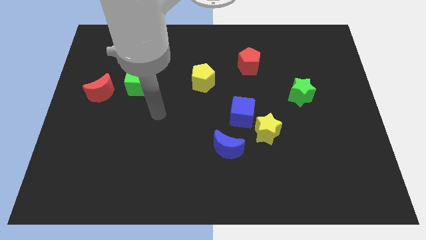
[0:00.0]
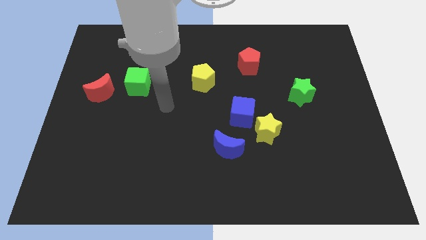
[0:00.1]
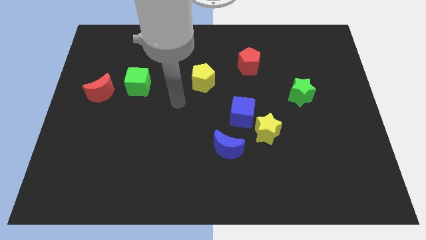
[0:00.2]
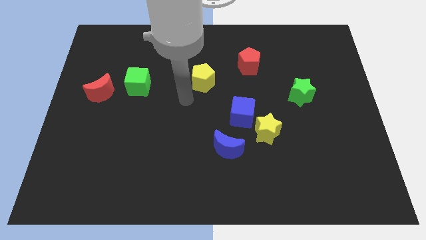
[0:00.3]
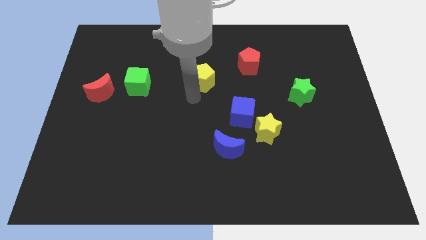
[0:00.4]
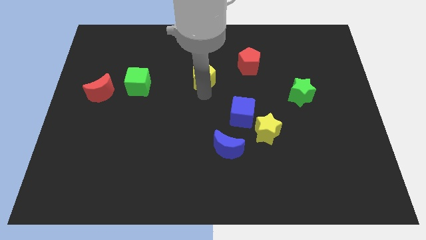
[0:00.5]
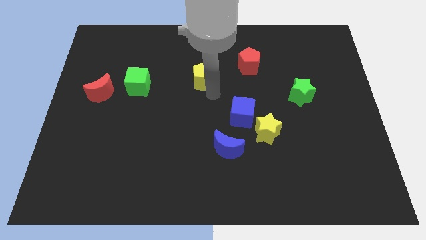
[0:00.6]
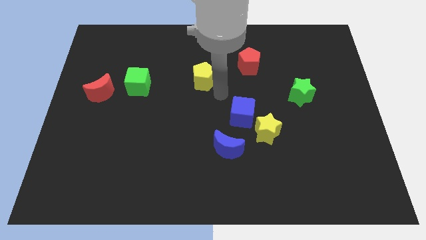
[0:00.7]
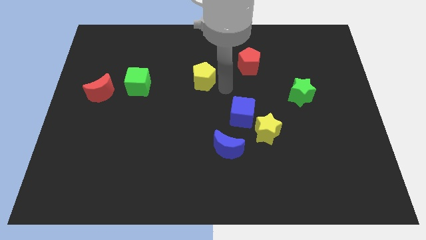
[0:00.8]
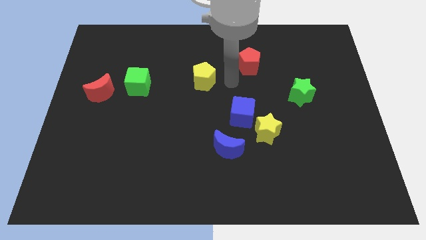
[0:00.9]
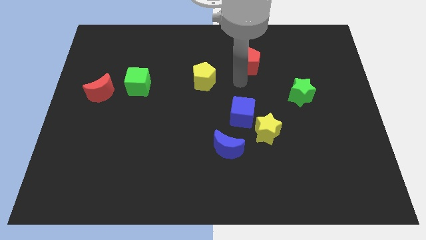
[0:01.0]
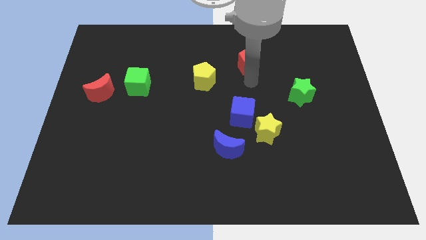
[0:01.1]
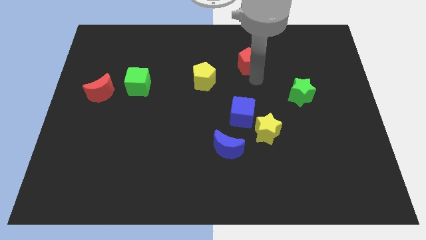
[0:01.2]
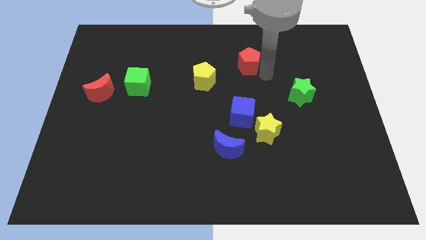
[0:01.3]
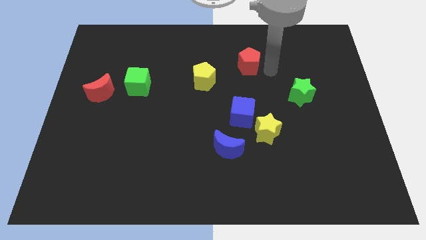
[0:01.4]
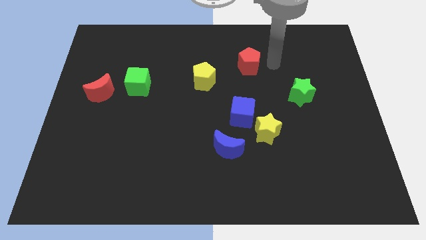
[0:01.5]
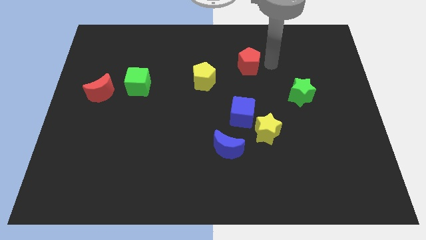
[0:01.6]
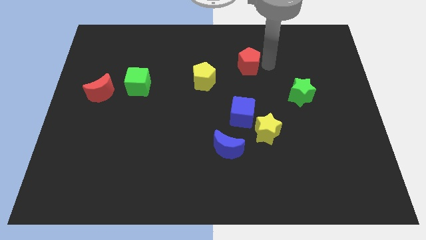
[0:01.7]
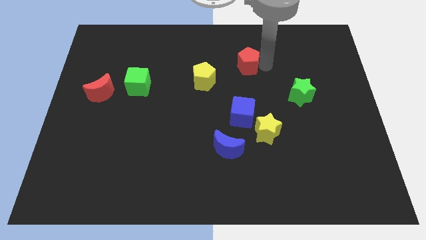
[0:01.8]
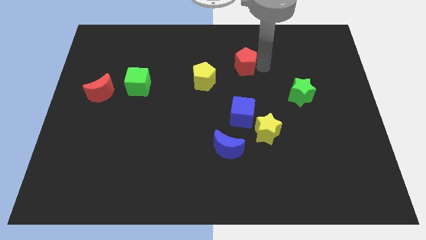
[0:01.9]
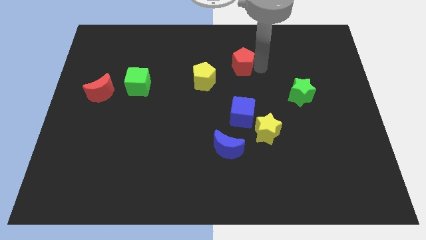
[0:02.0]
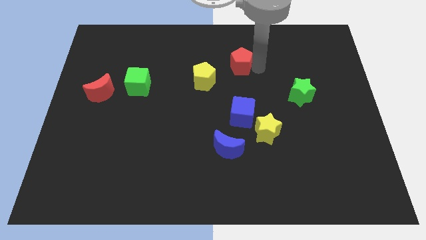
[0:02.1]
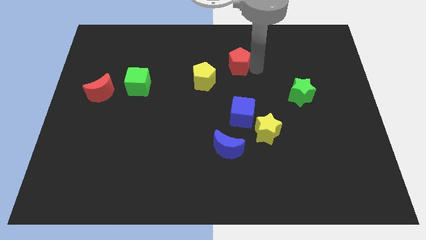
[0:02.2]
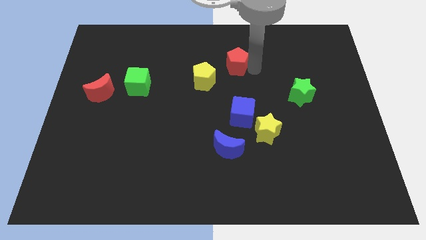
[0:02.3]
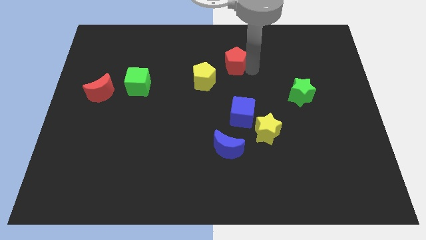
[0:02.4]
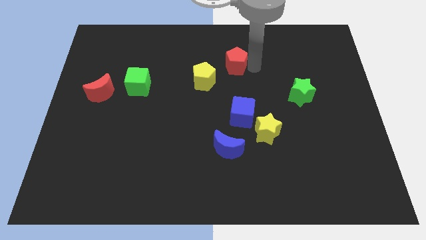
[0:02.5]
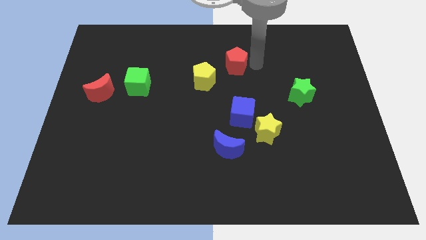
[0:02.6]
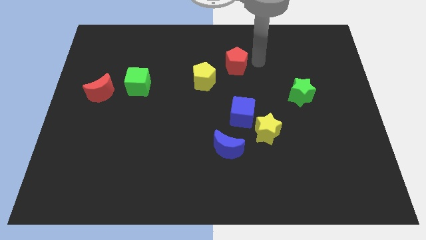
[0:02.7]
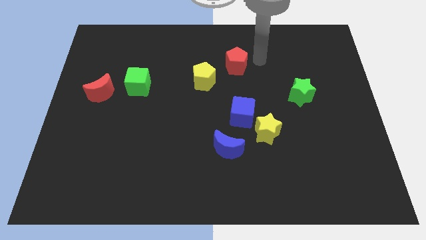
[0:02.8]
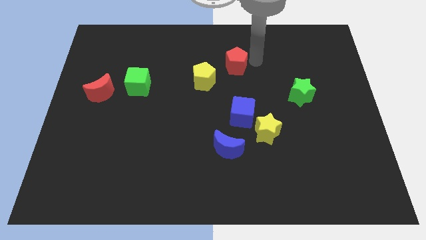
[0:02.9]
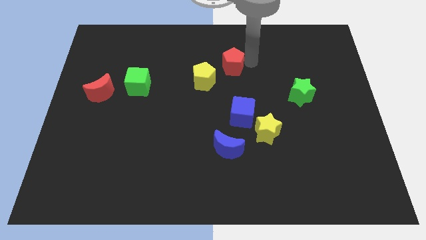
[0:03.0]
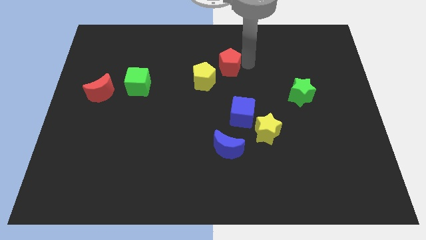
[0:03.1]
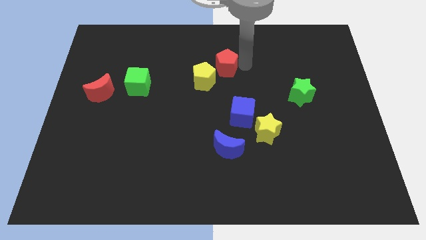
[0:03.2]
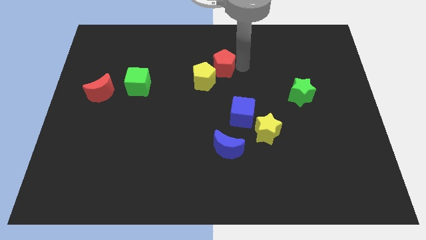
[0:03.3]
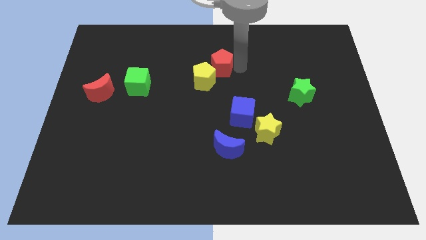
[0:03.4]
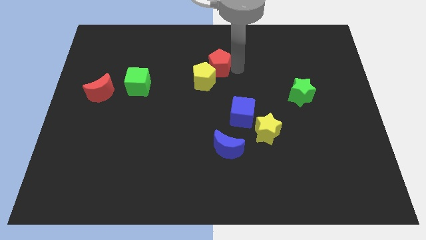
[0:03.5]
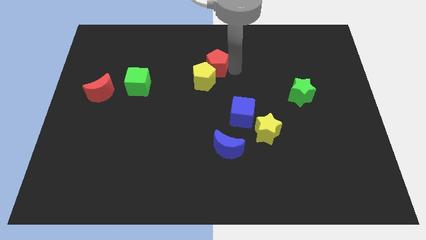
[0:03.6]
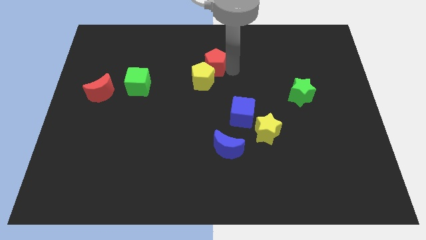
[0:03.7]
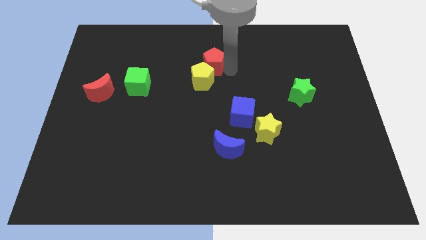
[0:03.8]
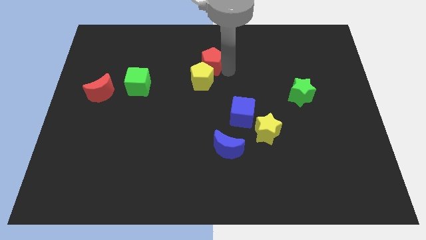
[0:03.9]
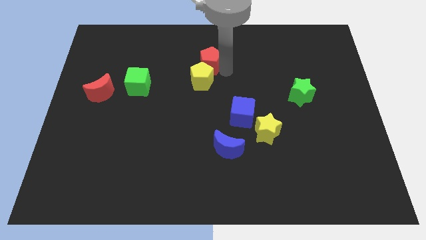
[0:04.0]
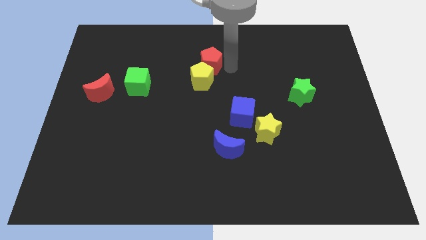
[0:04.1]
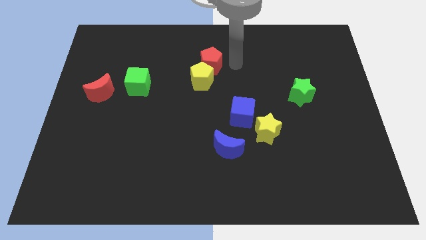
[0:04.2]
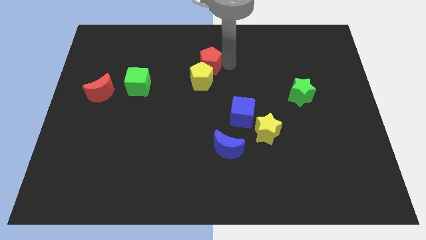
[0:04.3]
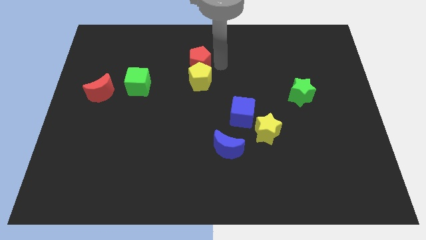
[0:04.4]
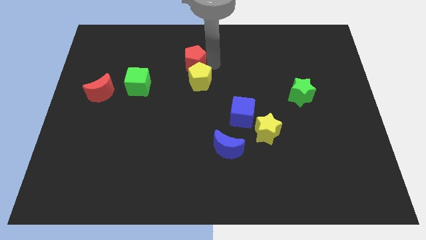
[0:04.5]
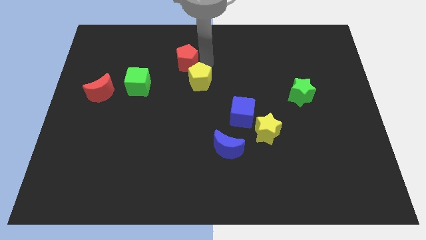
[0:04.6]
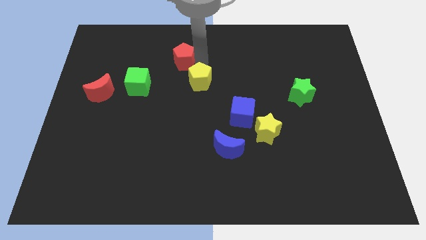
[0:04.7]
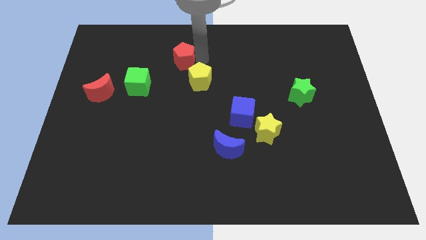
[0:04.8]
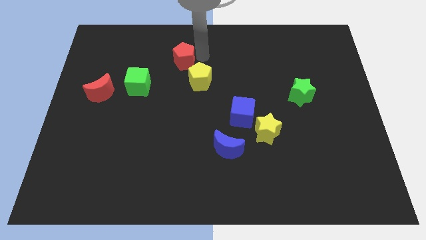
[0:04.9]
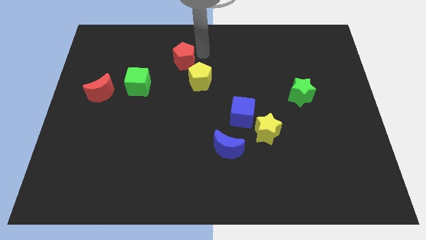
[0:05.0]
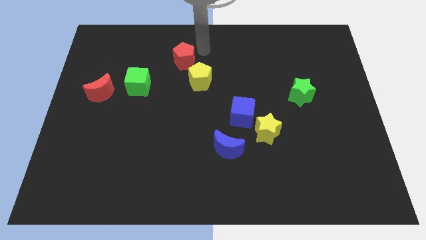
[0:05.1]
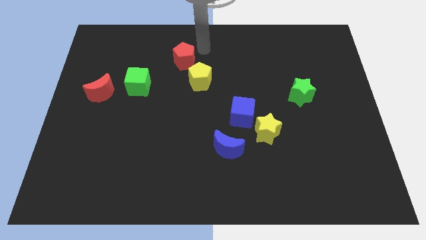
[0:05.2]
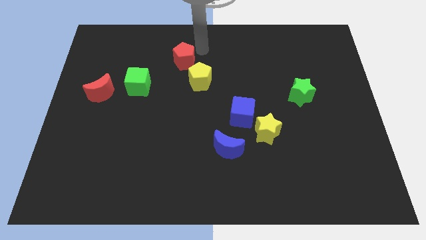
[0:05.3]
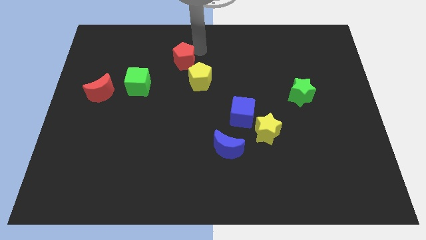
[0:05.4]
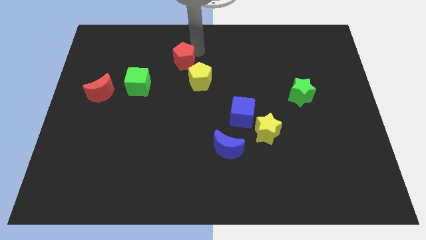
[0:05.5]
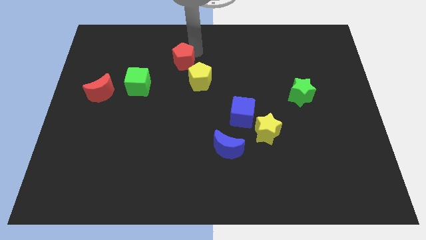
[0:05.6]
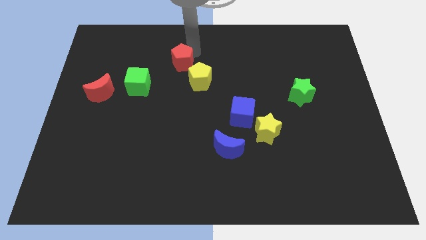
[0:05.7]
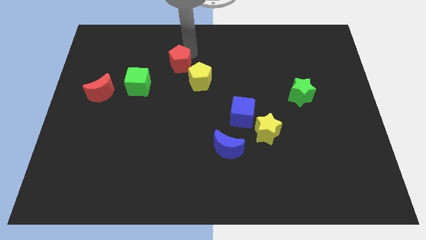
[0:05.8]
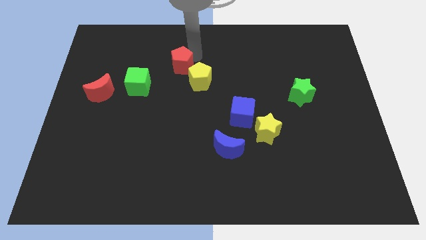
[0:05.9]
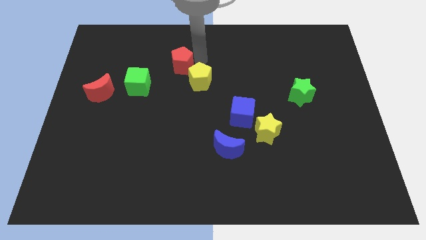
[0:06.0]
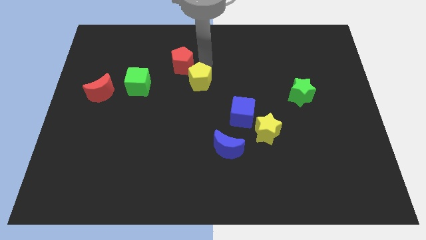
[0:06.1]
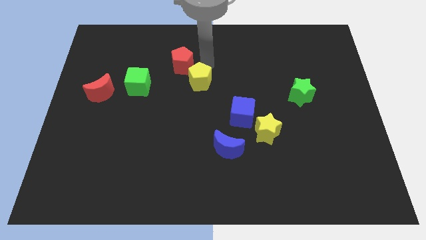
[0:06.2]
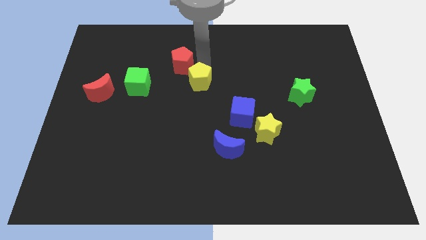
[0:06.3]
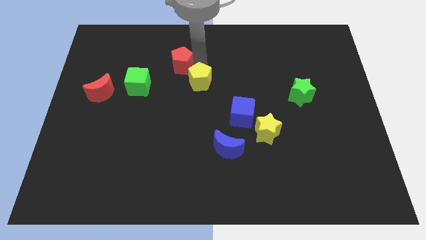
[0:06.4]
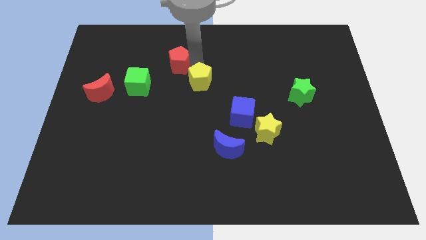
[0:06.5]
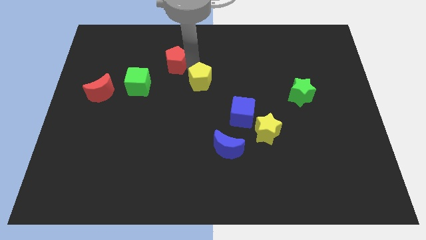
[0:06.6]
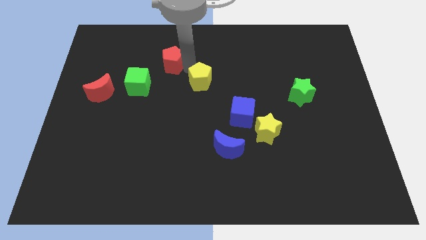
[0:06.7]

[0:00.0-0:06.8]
move the red pentagon to the left

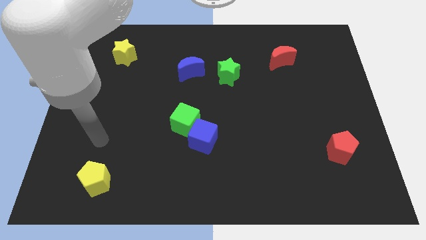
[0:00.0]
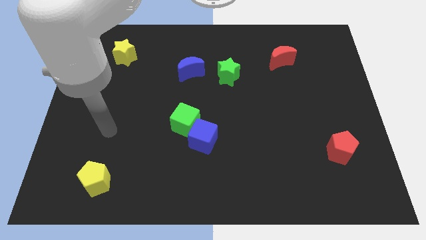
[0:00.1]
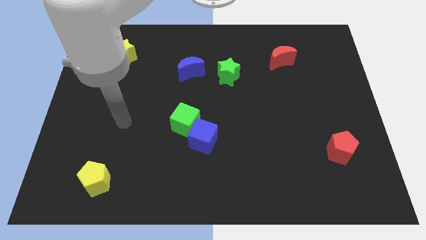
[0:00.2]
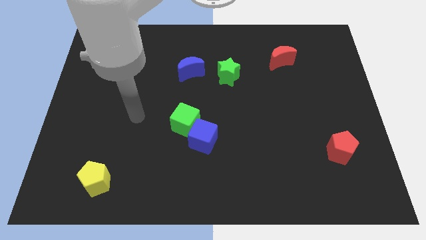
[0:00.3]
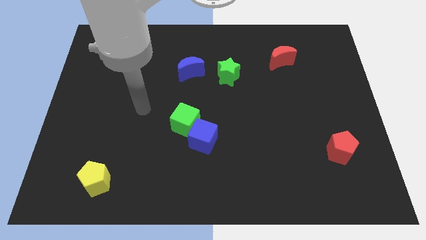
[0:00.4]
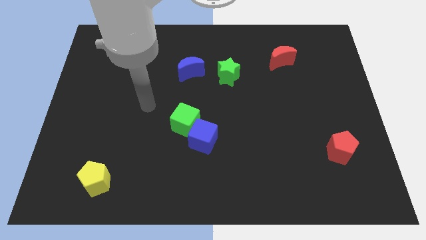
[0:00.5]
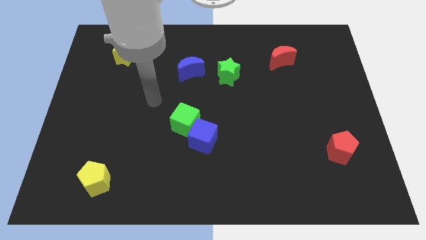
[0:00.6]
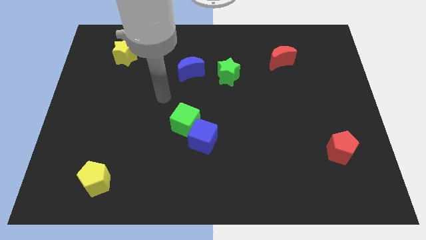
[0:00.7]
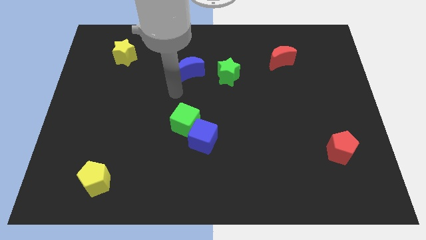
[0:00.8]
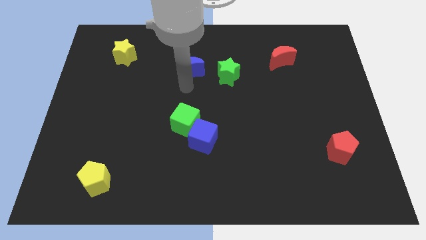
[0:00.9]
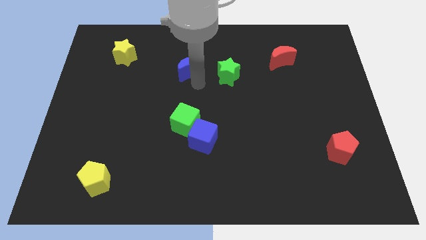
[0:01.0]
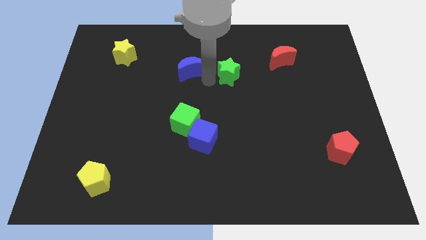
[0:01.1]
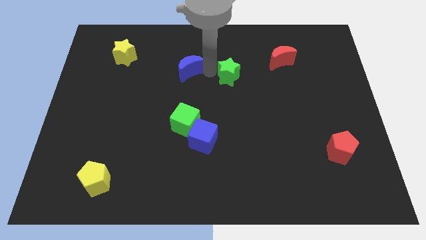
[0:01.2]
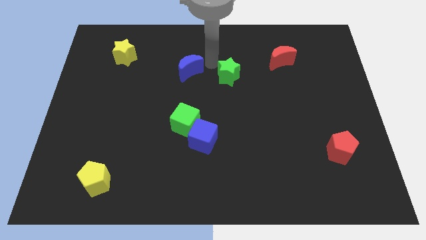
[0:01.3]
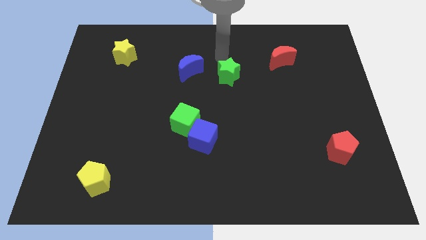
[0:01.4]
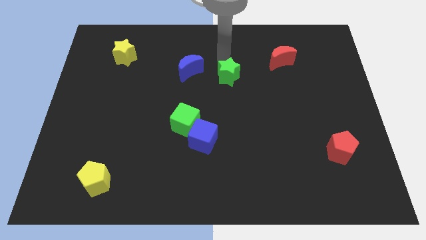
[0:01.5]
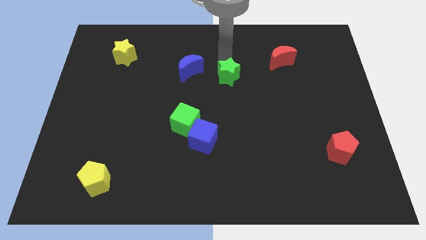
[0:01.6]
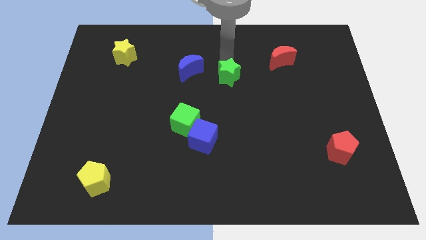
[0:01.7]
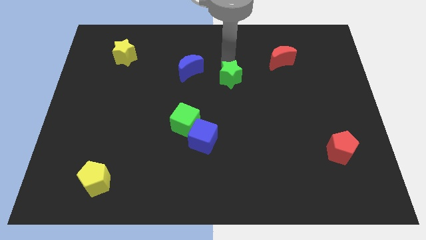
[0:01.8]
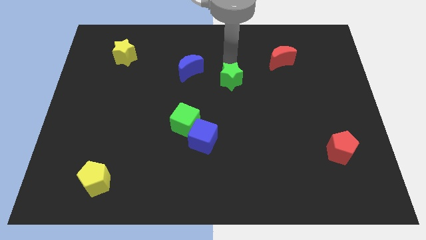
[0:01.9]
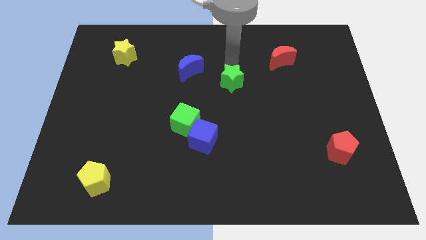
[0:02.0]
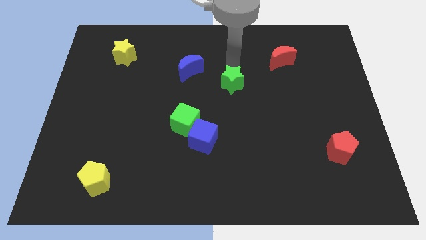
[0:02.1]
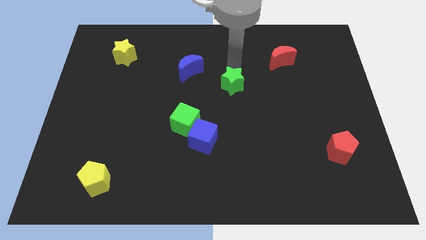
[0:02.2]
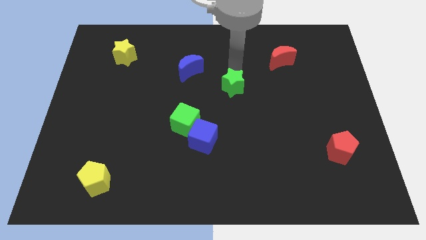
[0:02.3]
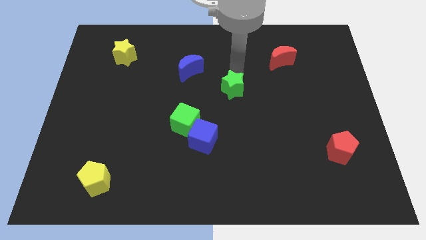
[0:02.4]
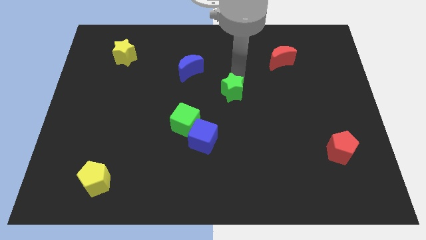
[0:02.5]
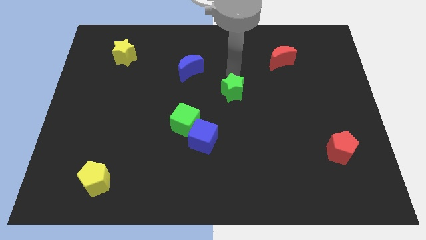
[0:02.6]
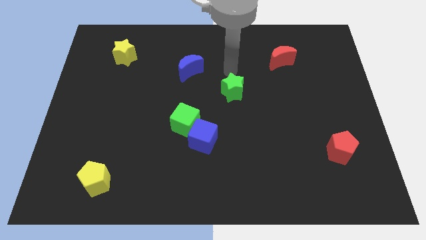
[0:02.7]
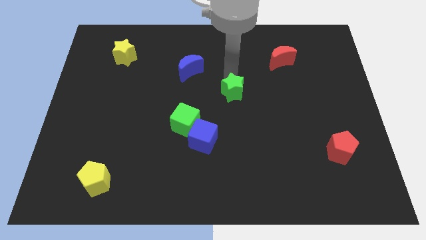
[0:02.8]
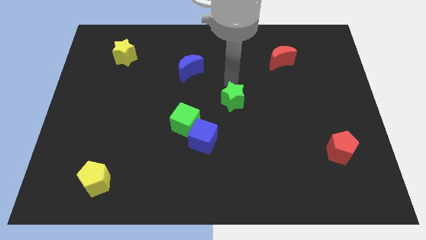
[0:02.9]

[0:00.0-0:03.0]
slide the green star slightly downwards
